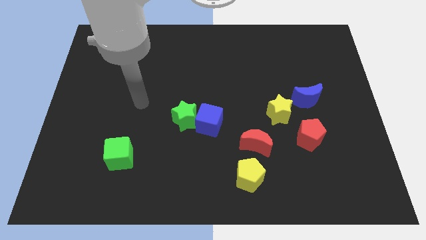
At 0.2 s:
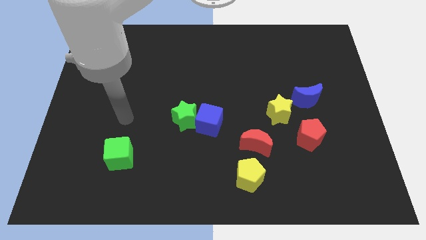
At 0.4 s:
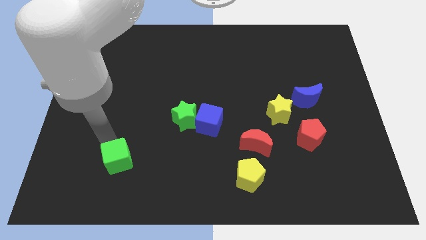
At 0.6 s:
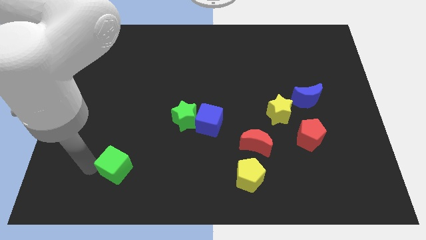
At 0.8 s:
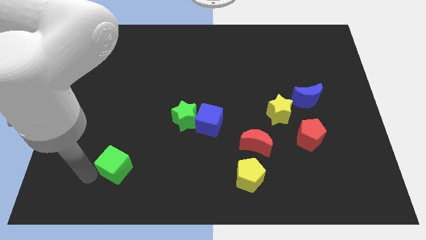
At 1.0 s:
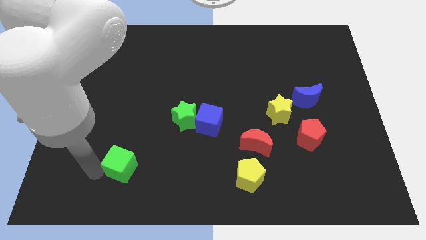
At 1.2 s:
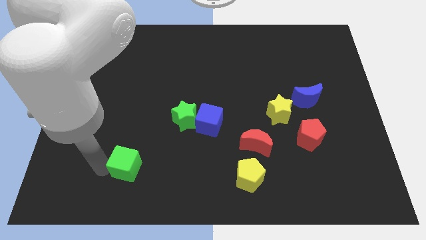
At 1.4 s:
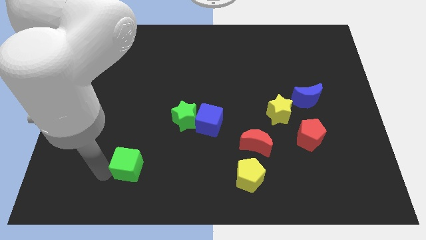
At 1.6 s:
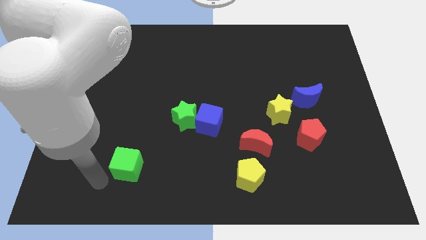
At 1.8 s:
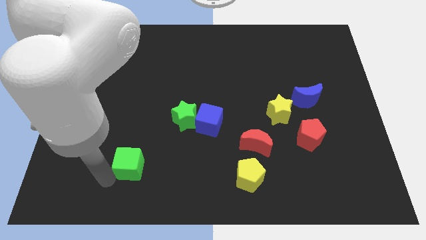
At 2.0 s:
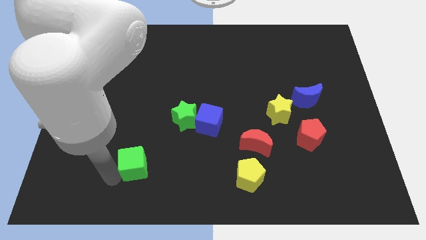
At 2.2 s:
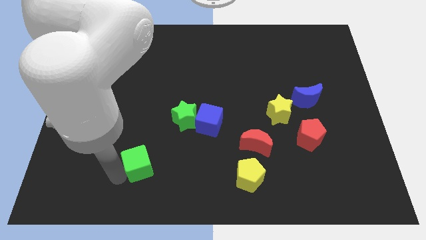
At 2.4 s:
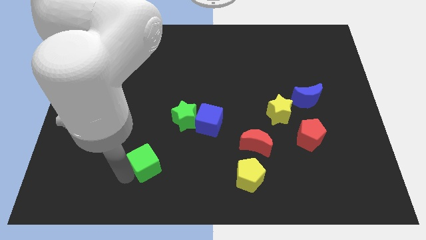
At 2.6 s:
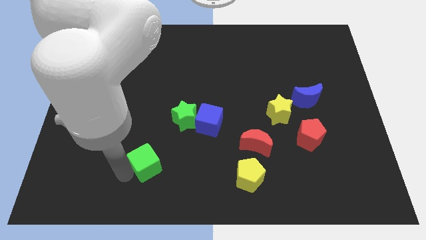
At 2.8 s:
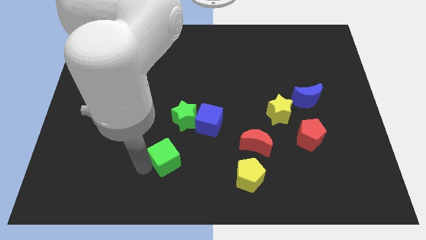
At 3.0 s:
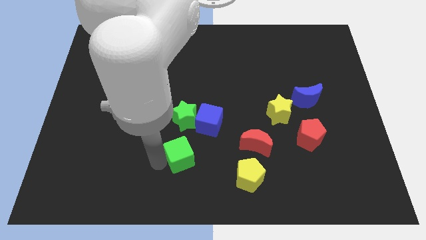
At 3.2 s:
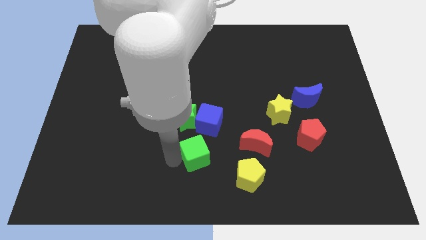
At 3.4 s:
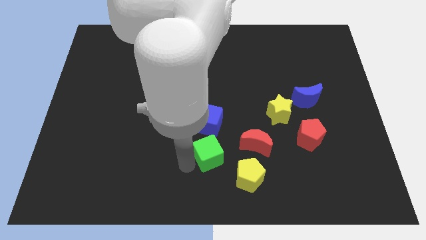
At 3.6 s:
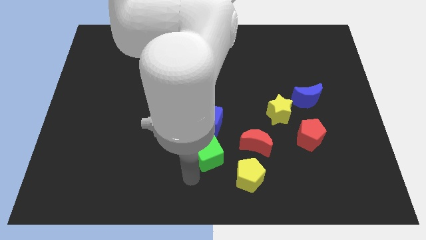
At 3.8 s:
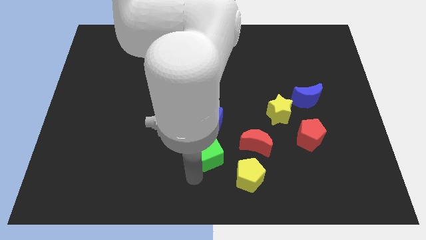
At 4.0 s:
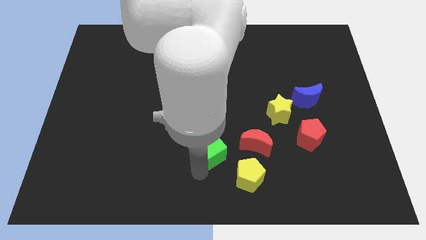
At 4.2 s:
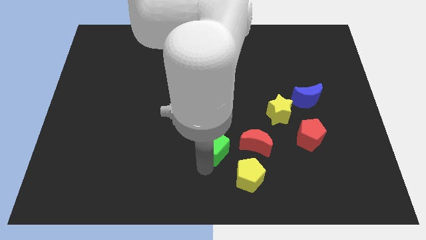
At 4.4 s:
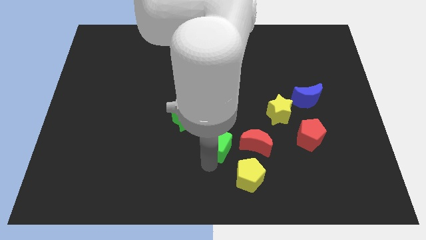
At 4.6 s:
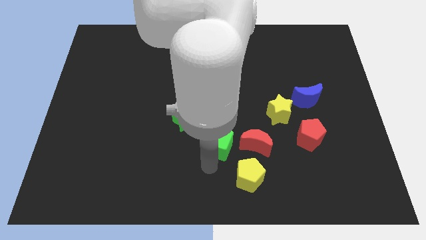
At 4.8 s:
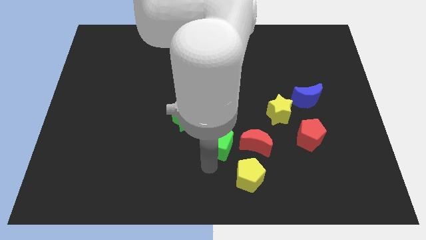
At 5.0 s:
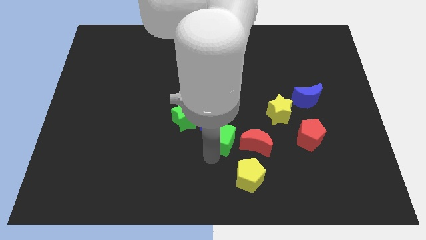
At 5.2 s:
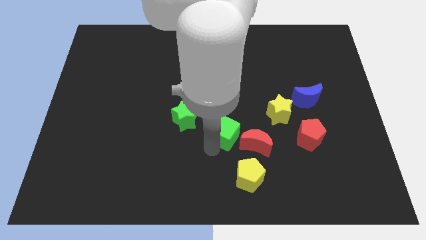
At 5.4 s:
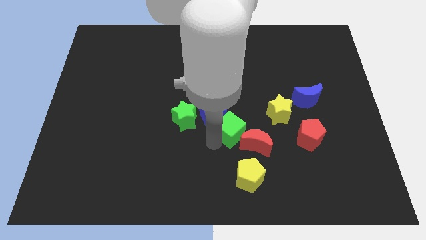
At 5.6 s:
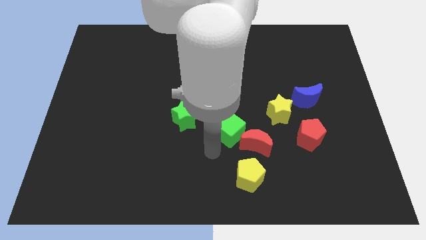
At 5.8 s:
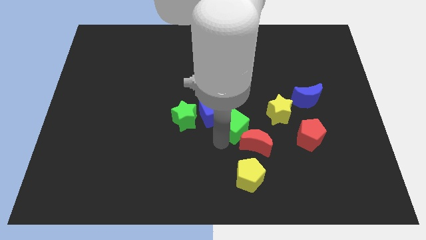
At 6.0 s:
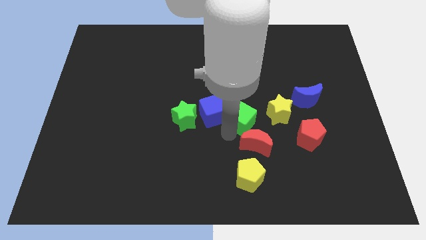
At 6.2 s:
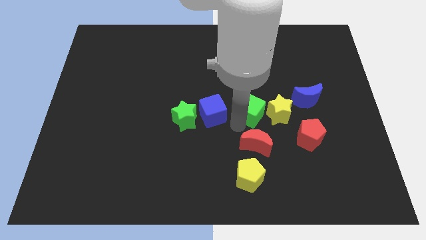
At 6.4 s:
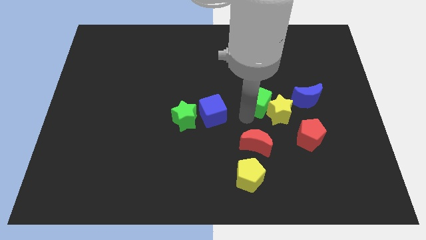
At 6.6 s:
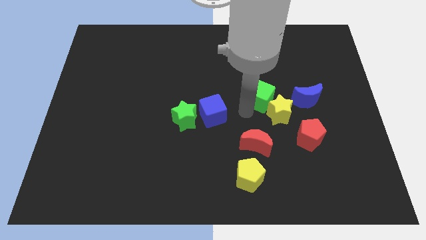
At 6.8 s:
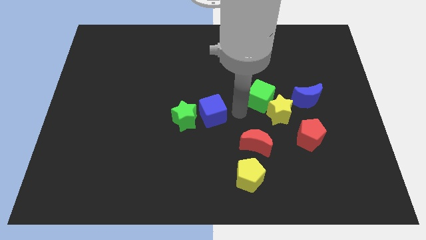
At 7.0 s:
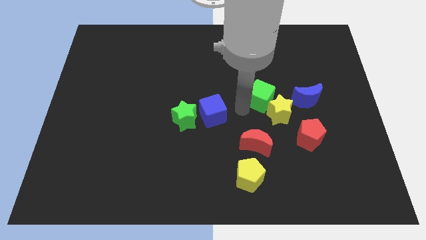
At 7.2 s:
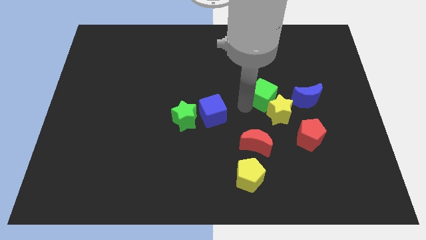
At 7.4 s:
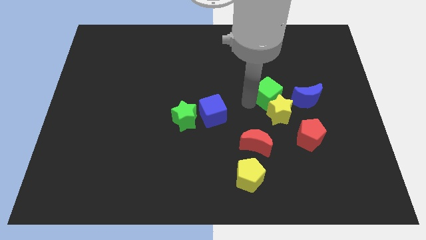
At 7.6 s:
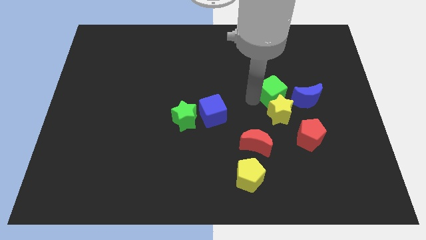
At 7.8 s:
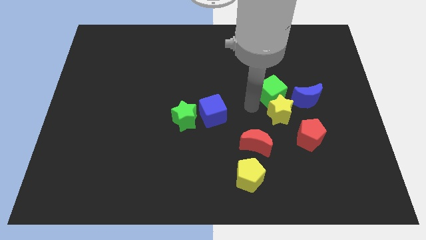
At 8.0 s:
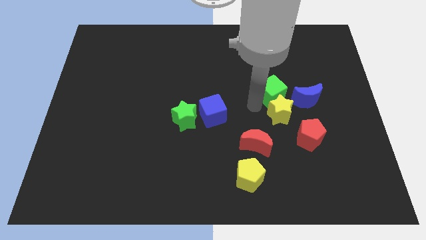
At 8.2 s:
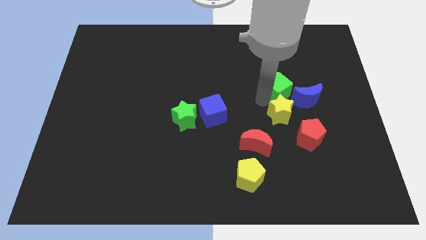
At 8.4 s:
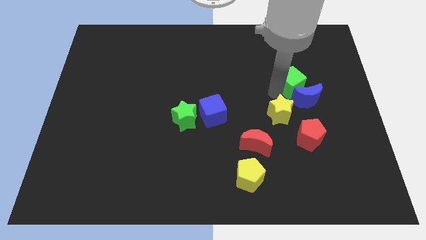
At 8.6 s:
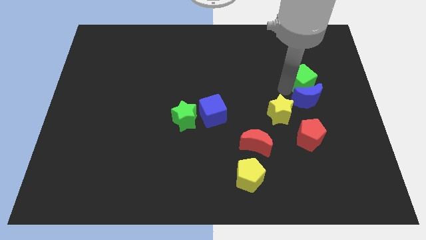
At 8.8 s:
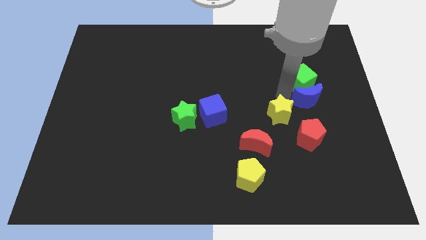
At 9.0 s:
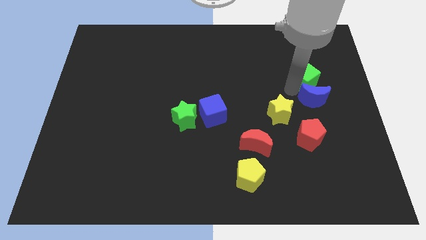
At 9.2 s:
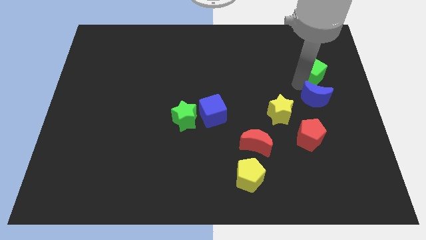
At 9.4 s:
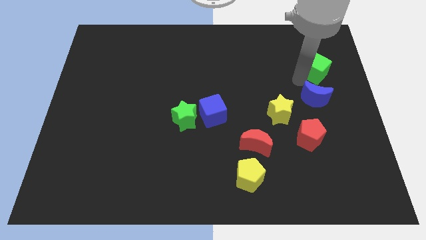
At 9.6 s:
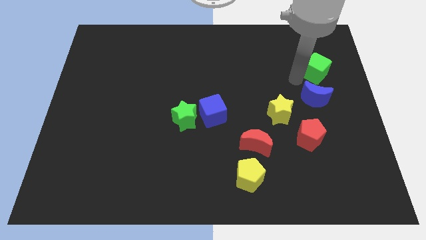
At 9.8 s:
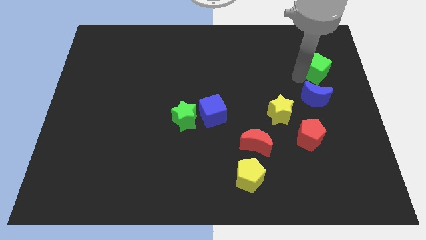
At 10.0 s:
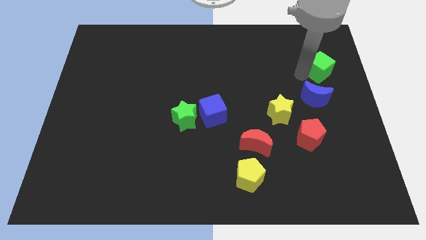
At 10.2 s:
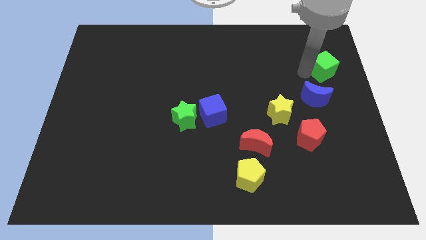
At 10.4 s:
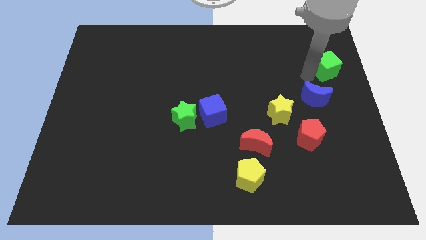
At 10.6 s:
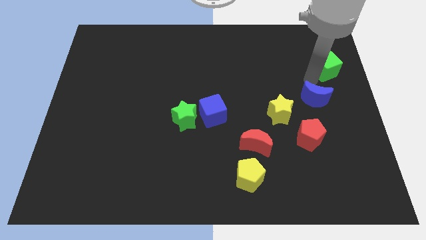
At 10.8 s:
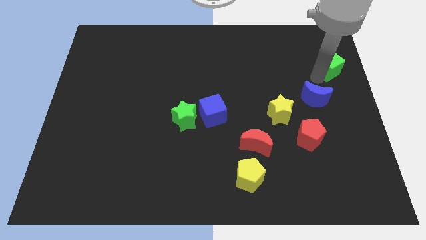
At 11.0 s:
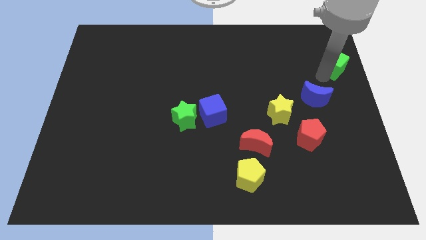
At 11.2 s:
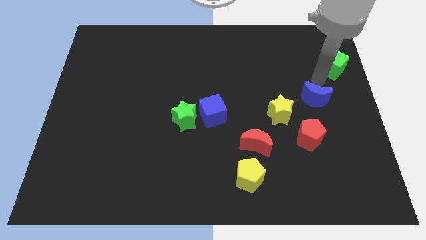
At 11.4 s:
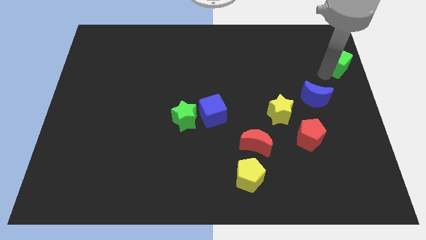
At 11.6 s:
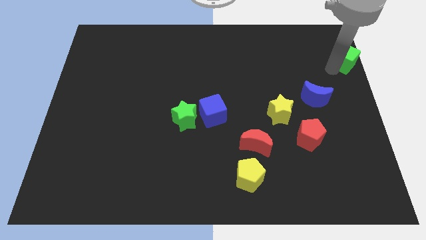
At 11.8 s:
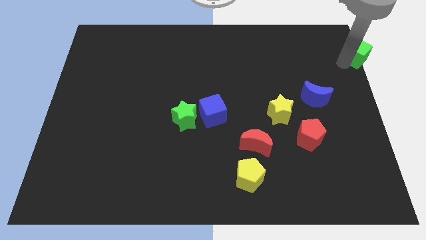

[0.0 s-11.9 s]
push the green cube to the upper right corner

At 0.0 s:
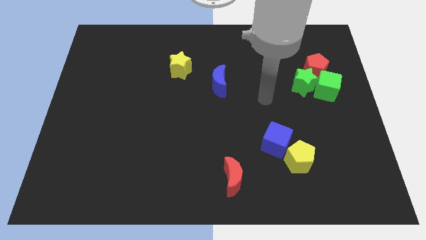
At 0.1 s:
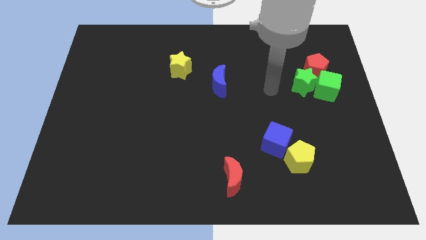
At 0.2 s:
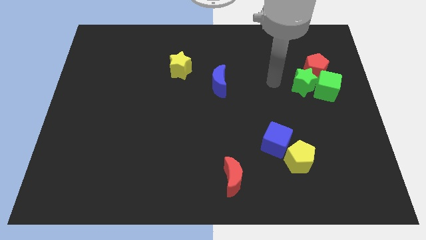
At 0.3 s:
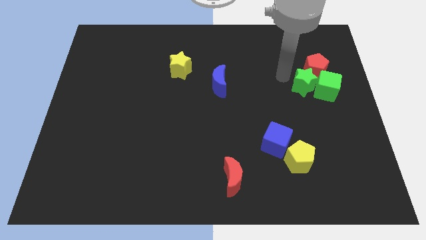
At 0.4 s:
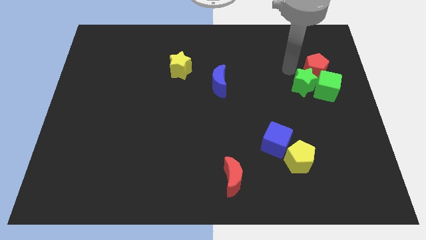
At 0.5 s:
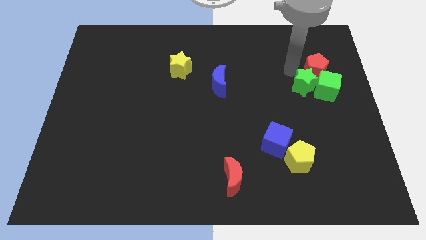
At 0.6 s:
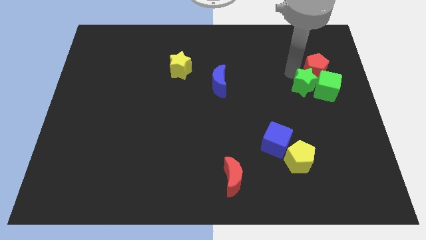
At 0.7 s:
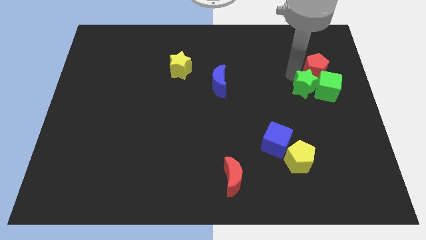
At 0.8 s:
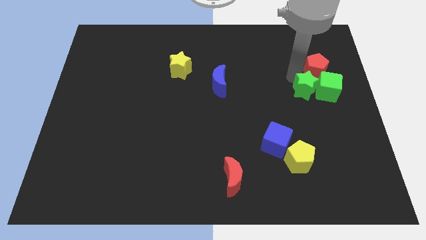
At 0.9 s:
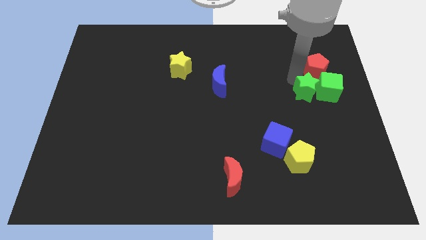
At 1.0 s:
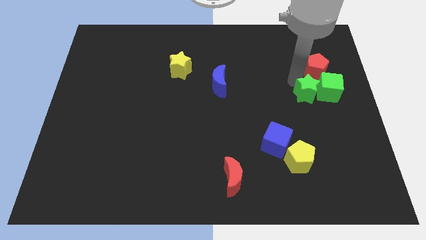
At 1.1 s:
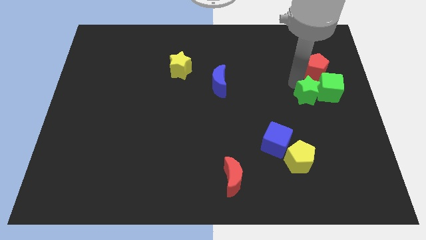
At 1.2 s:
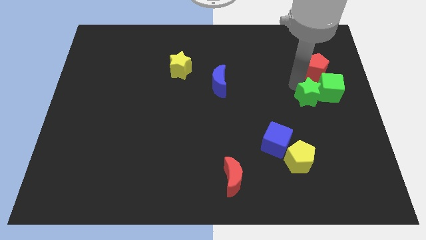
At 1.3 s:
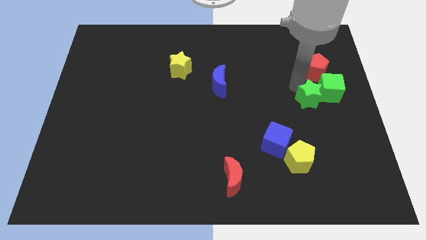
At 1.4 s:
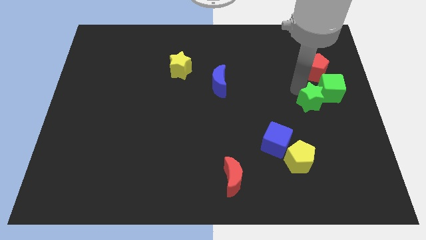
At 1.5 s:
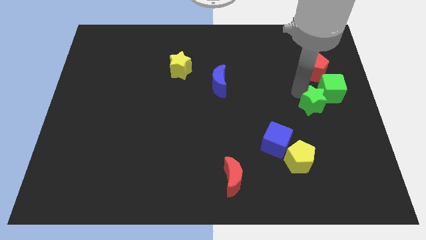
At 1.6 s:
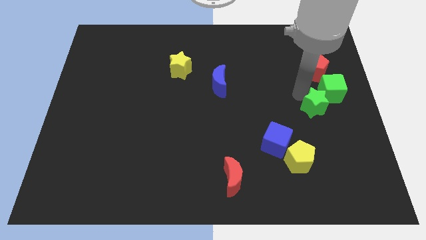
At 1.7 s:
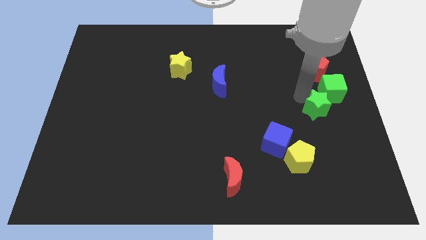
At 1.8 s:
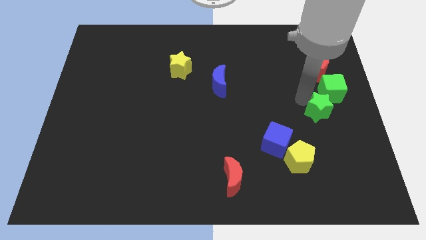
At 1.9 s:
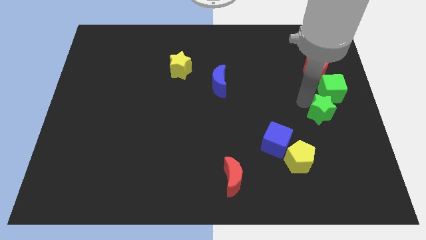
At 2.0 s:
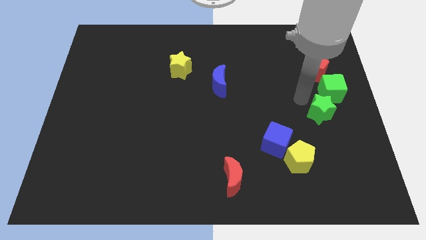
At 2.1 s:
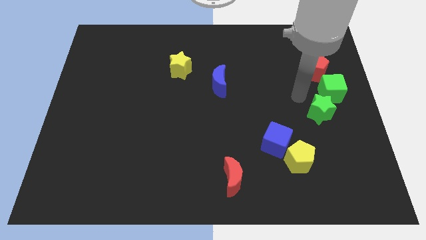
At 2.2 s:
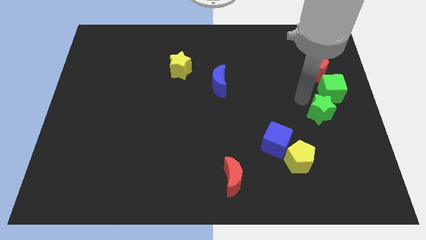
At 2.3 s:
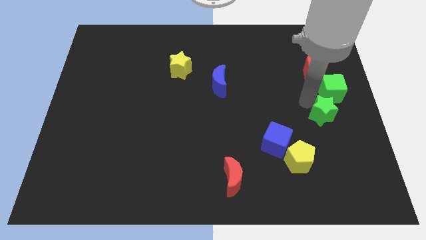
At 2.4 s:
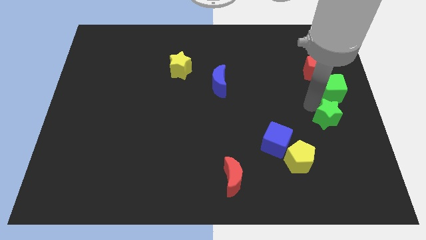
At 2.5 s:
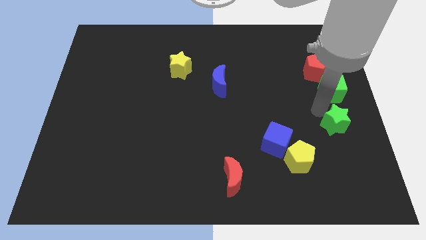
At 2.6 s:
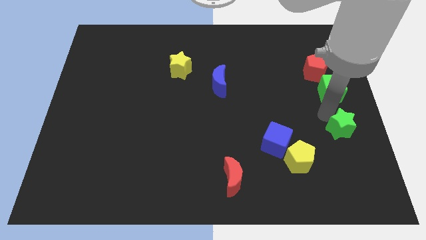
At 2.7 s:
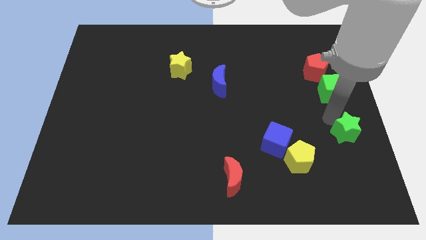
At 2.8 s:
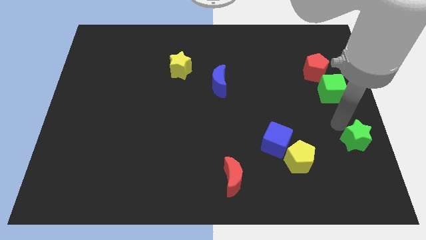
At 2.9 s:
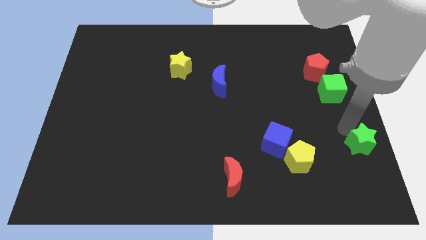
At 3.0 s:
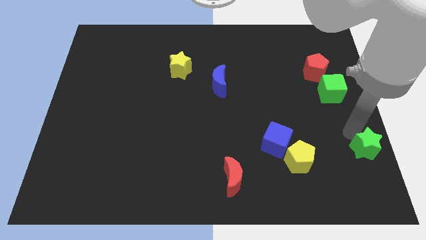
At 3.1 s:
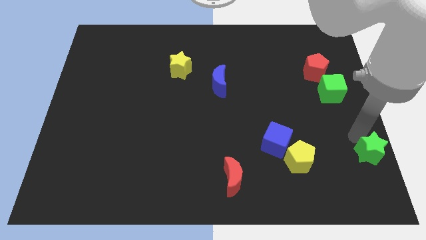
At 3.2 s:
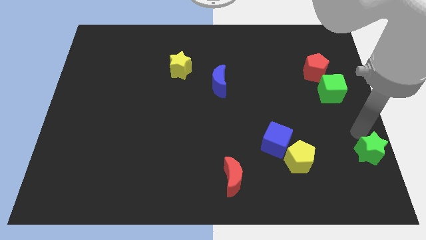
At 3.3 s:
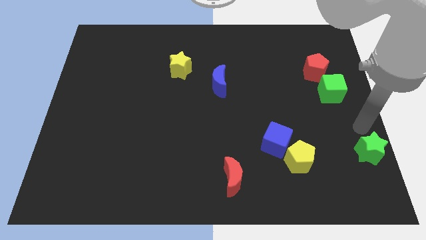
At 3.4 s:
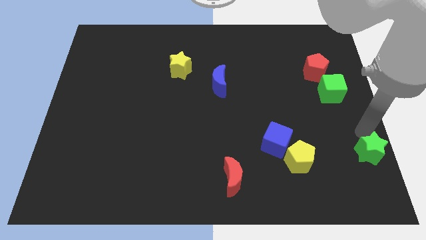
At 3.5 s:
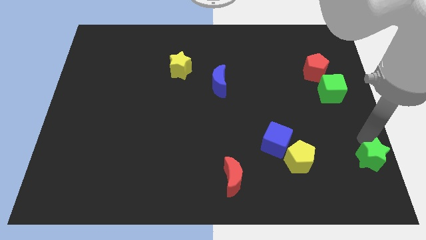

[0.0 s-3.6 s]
put the green star to the bottom right
